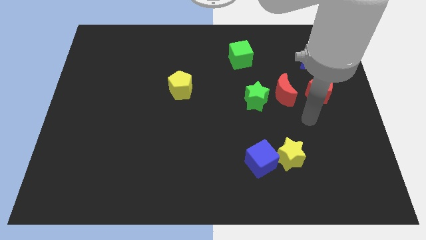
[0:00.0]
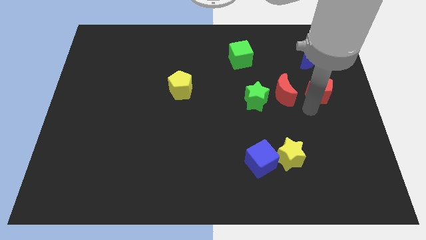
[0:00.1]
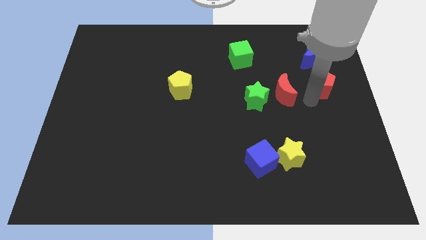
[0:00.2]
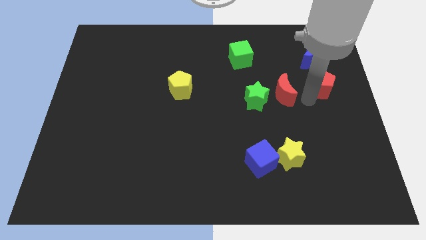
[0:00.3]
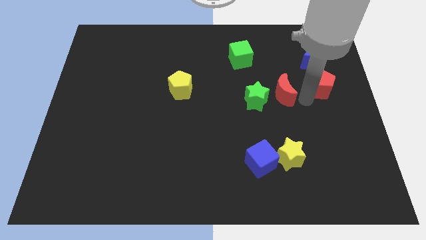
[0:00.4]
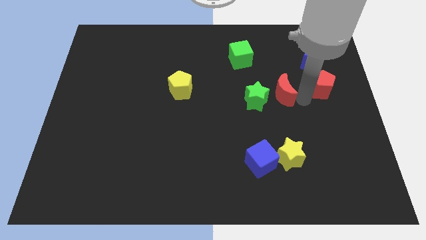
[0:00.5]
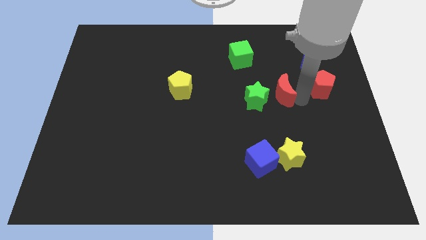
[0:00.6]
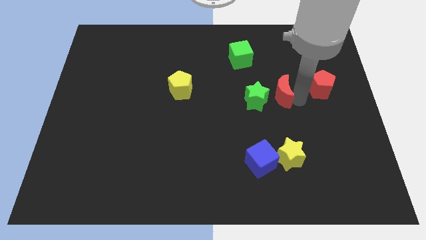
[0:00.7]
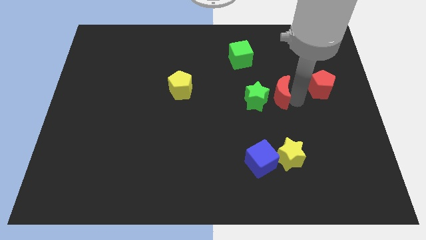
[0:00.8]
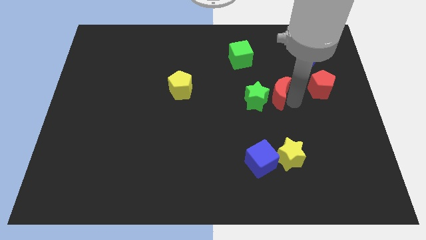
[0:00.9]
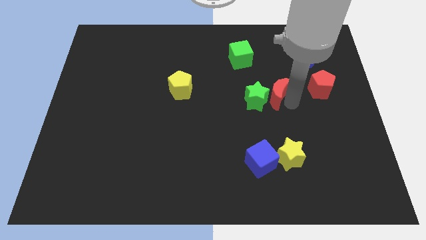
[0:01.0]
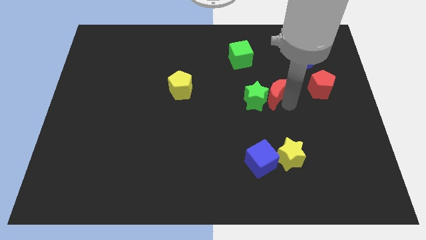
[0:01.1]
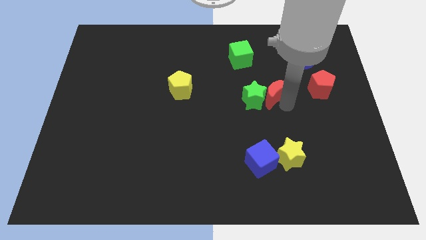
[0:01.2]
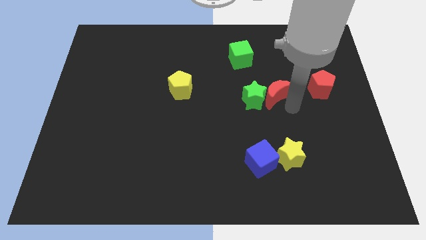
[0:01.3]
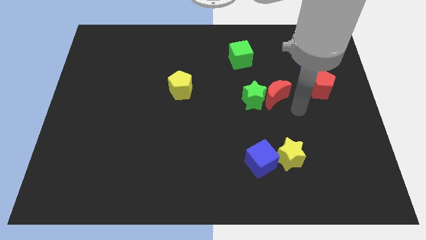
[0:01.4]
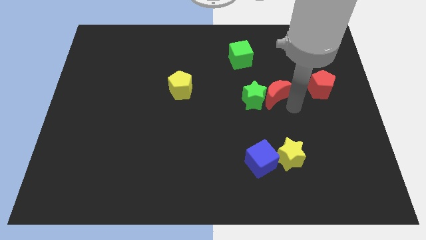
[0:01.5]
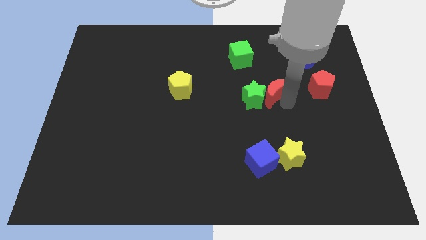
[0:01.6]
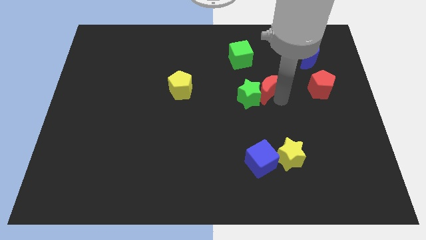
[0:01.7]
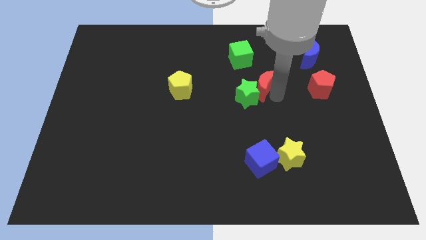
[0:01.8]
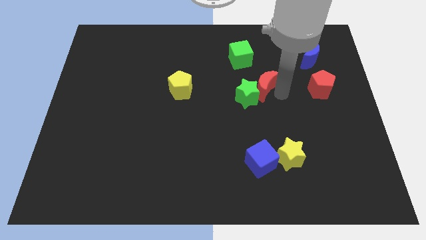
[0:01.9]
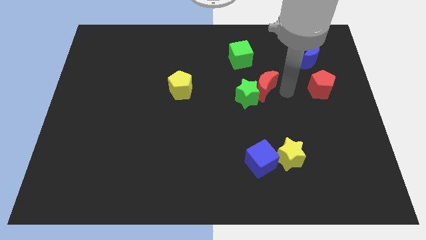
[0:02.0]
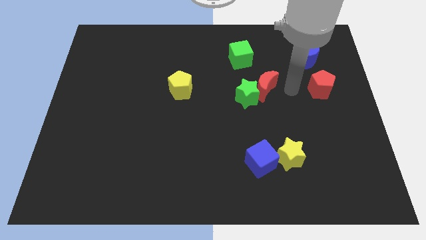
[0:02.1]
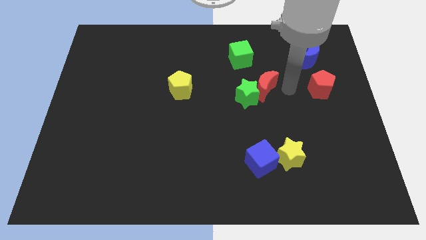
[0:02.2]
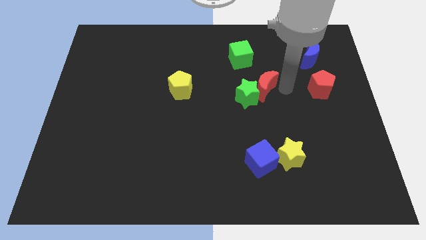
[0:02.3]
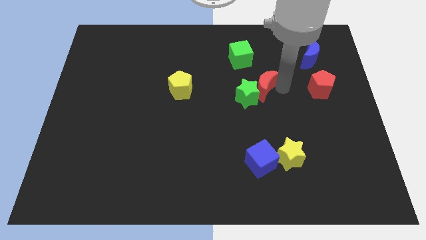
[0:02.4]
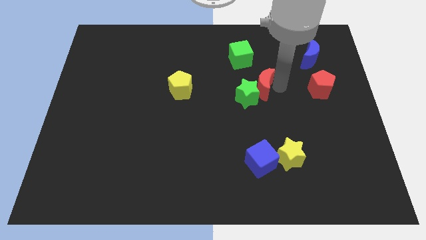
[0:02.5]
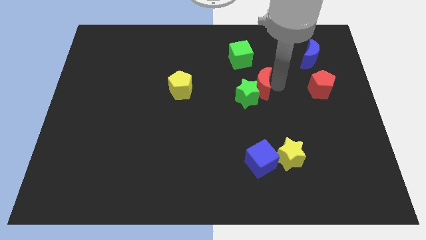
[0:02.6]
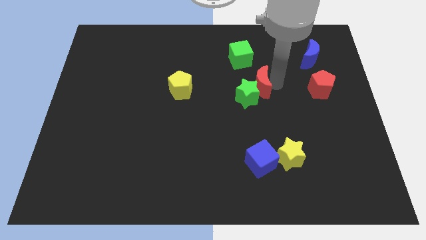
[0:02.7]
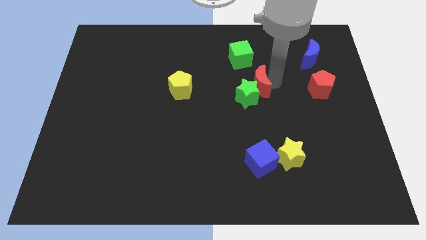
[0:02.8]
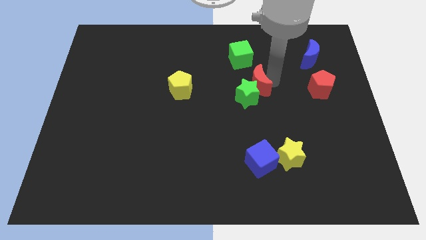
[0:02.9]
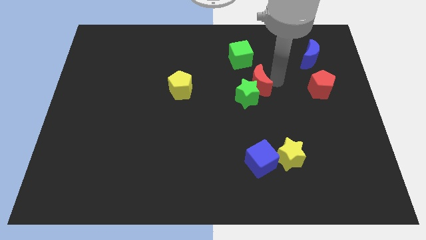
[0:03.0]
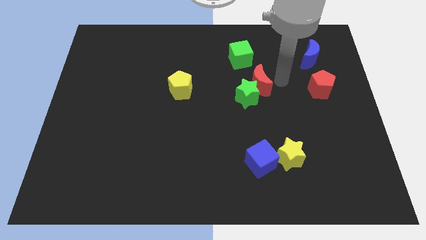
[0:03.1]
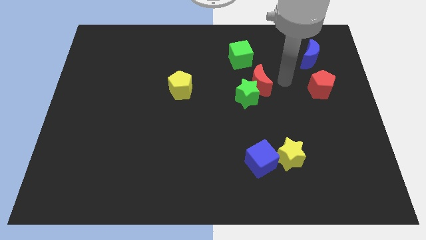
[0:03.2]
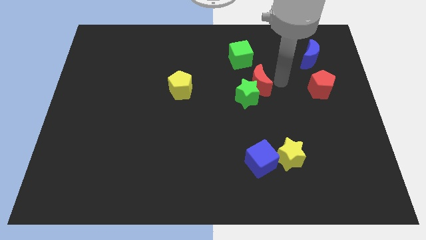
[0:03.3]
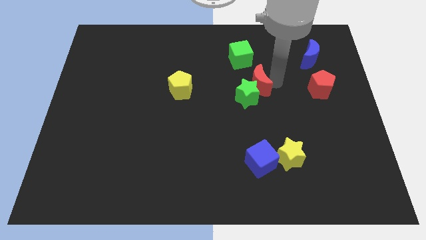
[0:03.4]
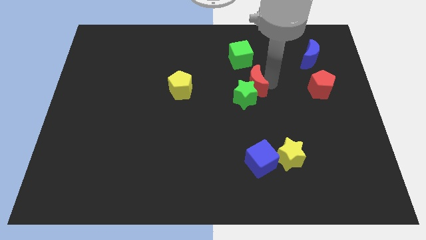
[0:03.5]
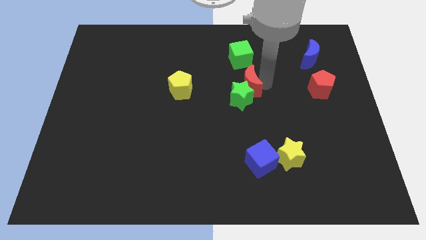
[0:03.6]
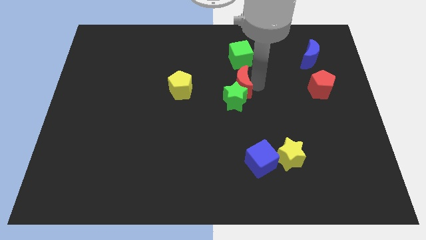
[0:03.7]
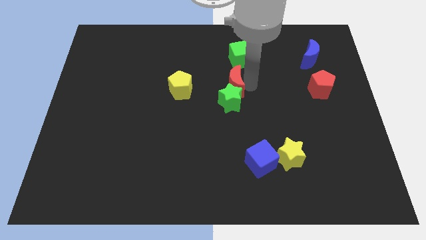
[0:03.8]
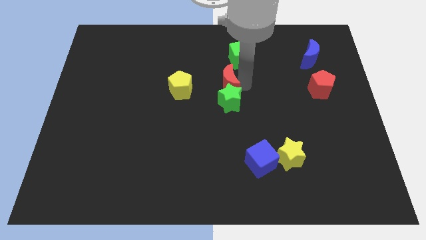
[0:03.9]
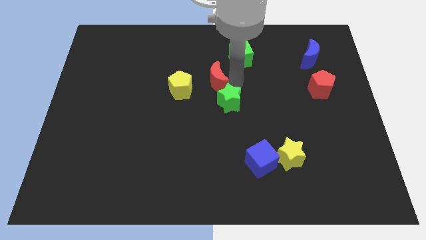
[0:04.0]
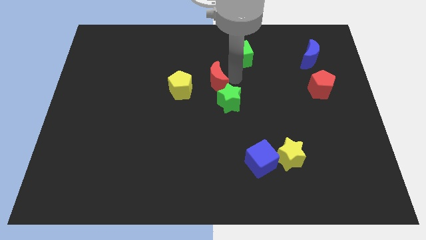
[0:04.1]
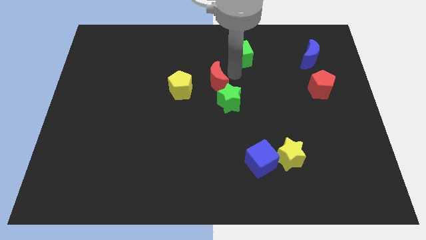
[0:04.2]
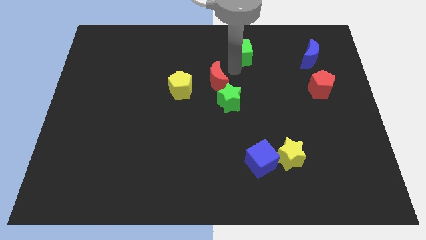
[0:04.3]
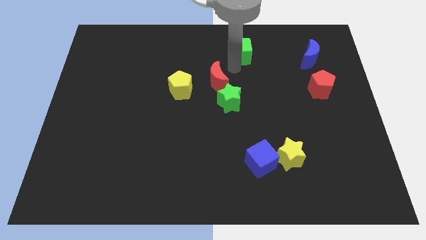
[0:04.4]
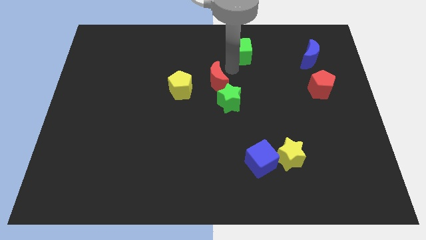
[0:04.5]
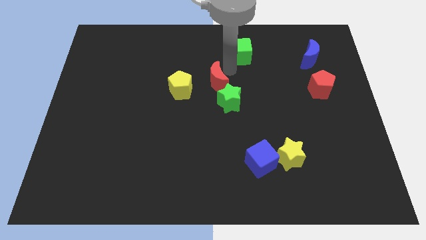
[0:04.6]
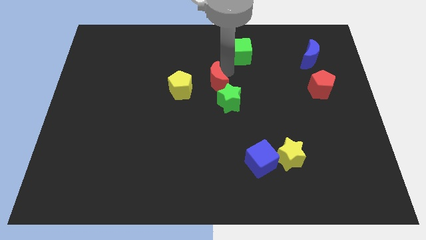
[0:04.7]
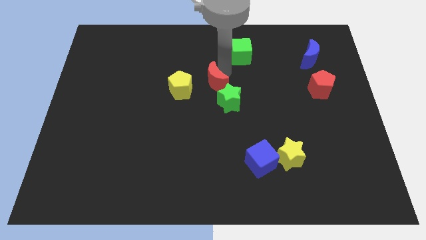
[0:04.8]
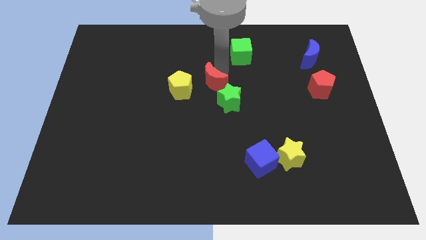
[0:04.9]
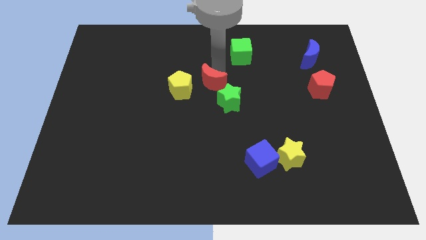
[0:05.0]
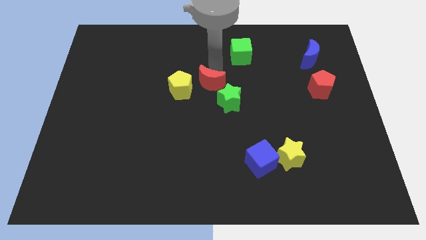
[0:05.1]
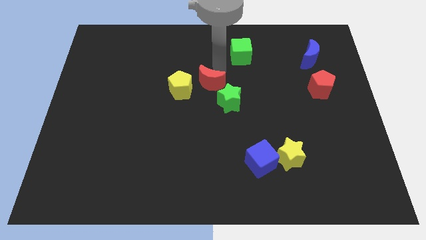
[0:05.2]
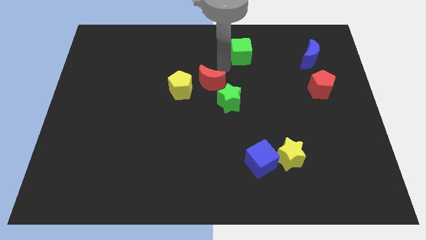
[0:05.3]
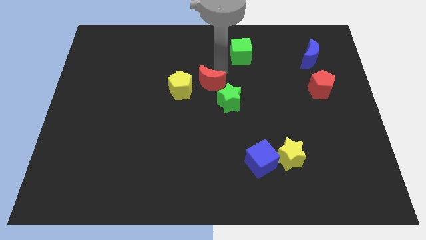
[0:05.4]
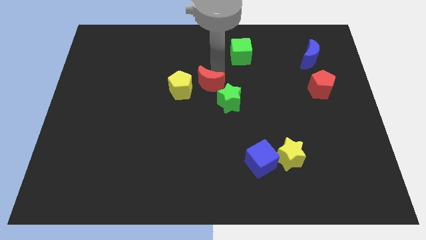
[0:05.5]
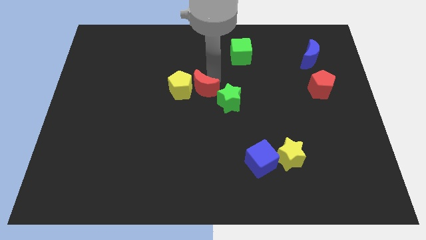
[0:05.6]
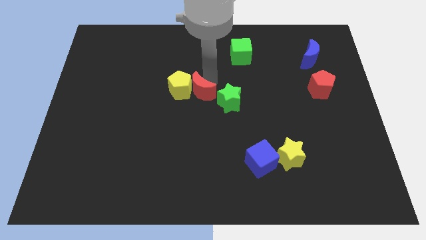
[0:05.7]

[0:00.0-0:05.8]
move the red moon to the left

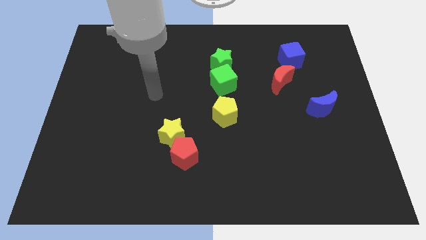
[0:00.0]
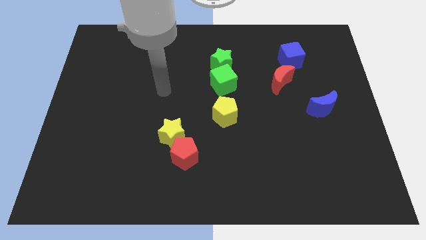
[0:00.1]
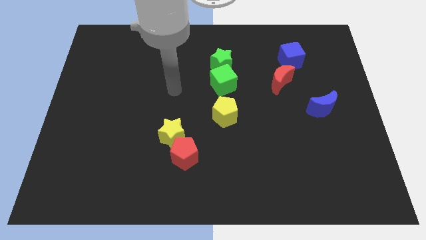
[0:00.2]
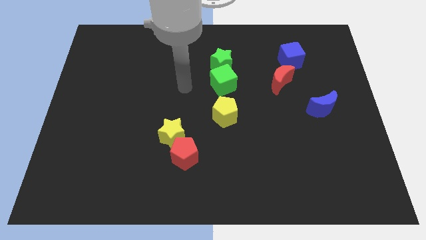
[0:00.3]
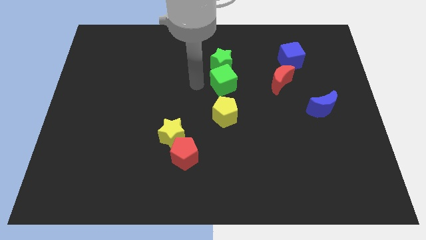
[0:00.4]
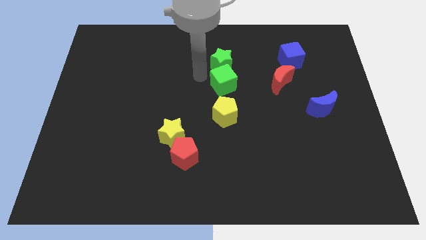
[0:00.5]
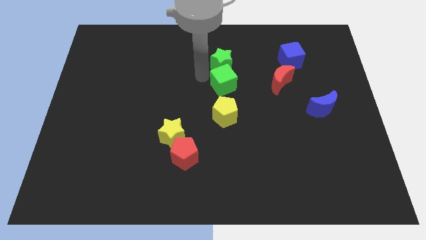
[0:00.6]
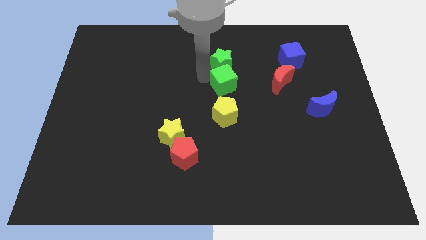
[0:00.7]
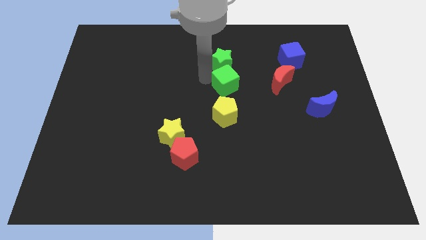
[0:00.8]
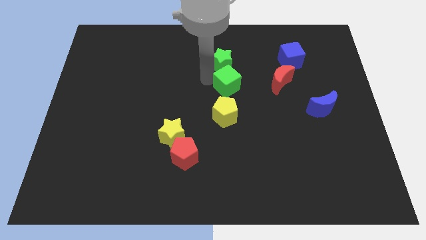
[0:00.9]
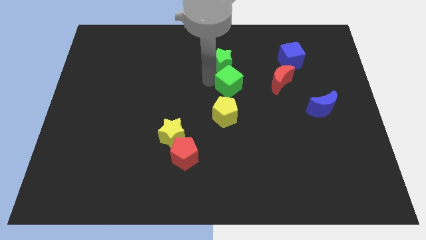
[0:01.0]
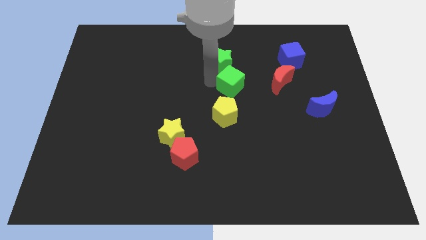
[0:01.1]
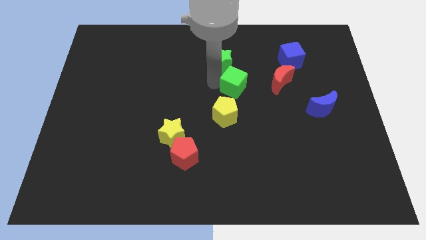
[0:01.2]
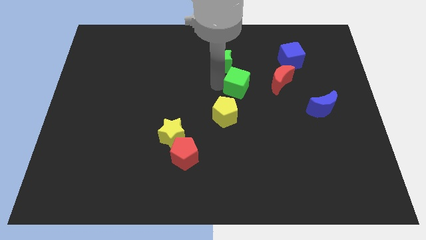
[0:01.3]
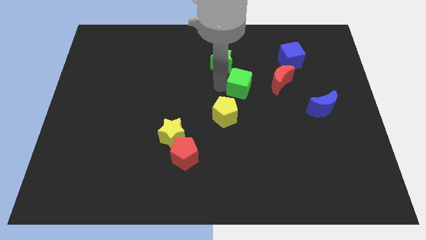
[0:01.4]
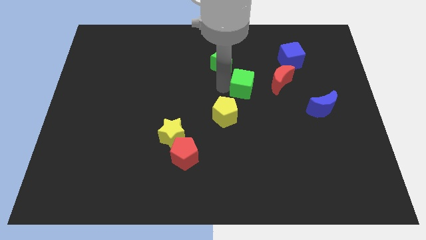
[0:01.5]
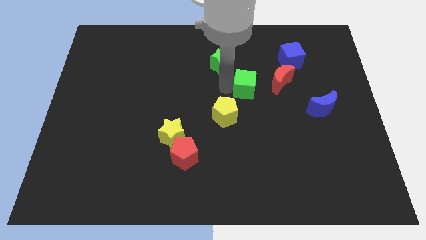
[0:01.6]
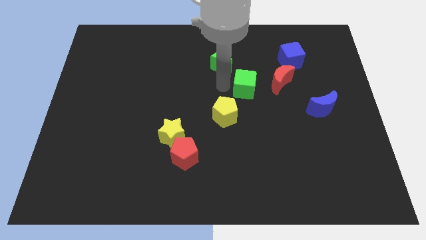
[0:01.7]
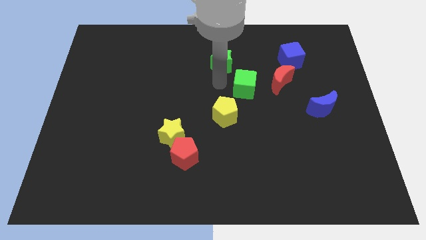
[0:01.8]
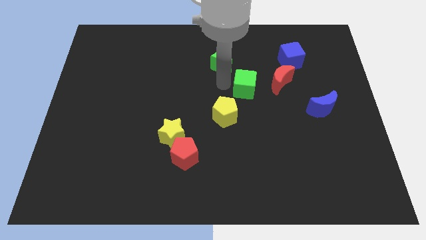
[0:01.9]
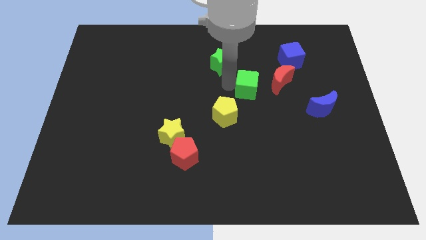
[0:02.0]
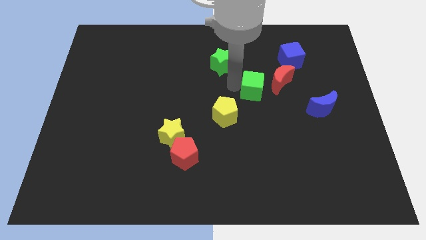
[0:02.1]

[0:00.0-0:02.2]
slightly move the green cube to the right
